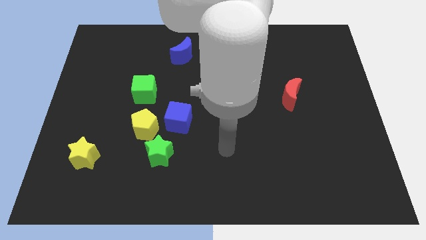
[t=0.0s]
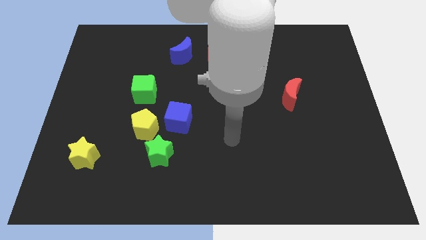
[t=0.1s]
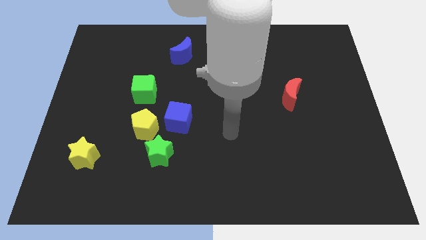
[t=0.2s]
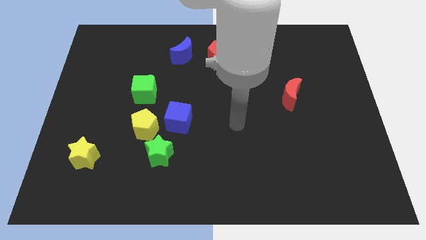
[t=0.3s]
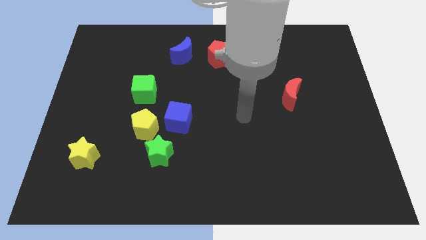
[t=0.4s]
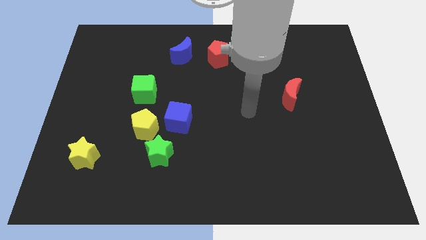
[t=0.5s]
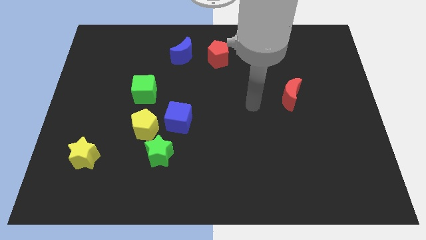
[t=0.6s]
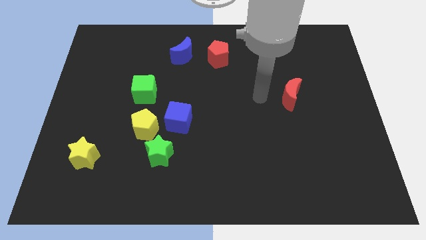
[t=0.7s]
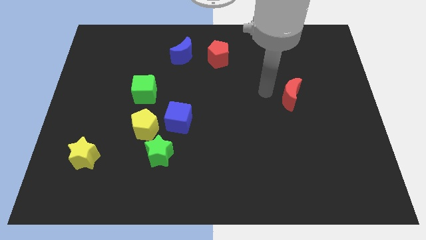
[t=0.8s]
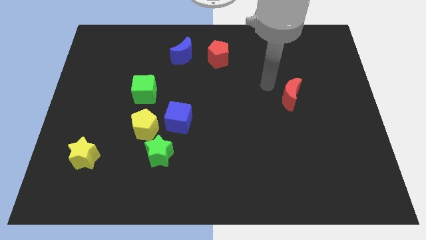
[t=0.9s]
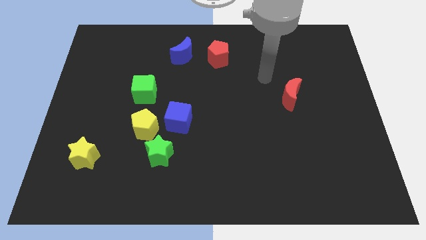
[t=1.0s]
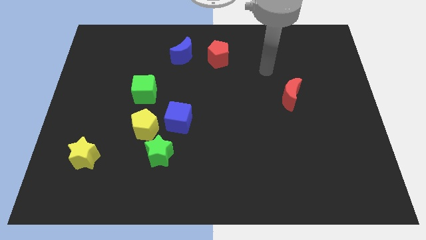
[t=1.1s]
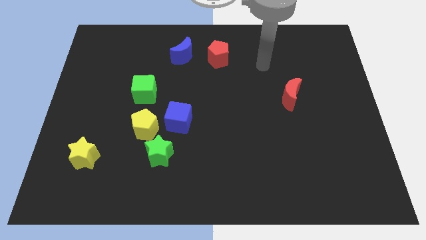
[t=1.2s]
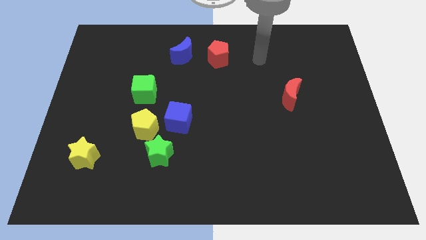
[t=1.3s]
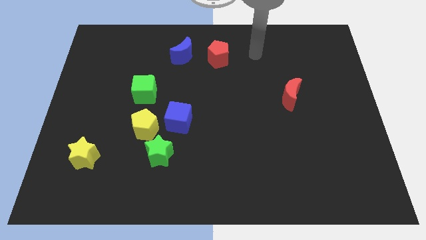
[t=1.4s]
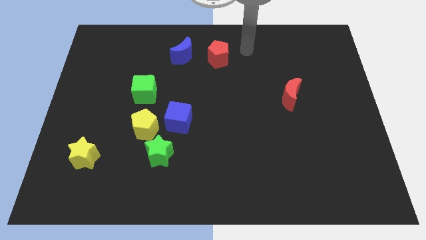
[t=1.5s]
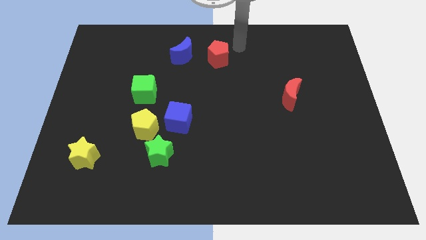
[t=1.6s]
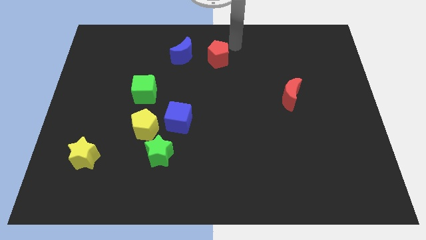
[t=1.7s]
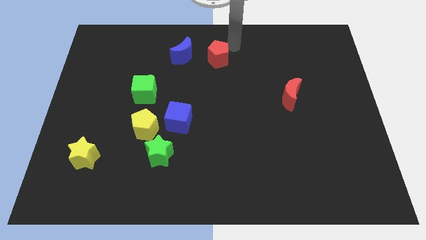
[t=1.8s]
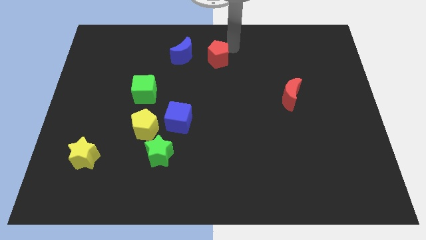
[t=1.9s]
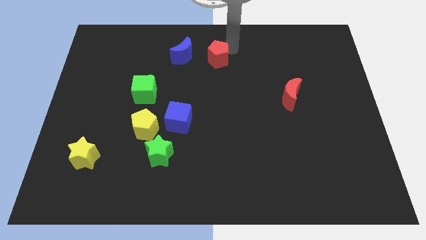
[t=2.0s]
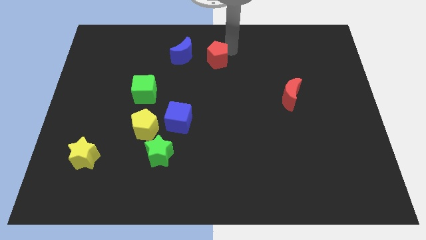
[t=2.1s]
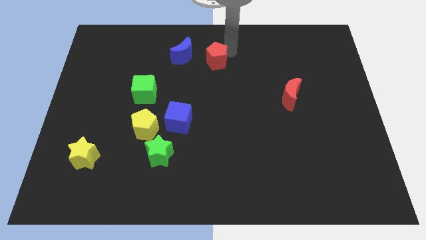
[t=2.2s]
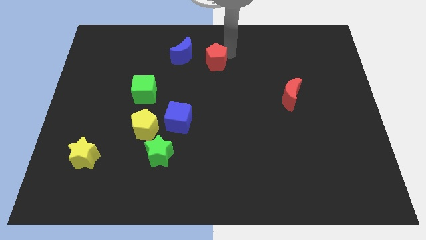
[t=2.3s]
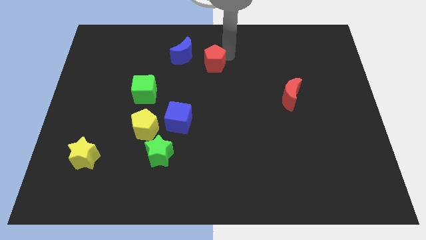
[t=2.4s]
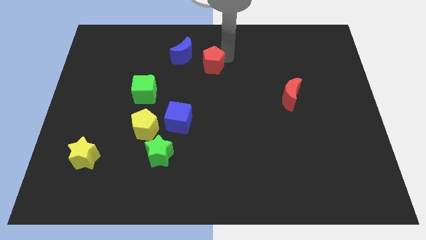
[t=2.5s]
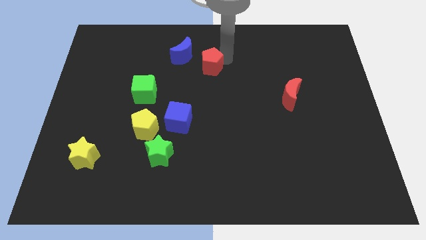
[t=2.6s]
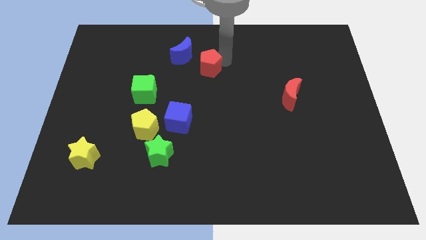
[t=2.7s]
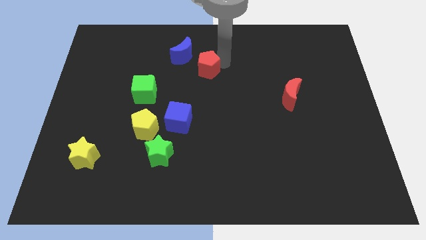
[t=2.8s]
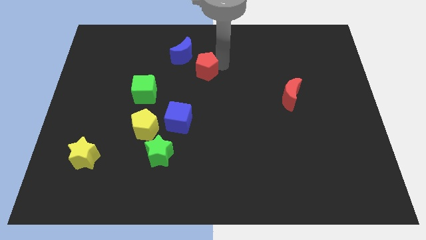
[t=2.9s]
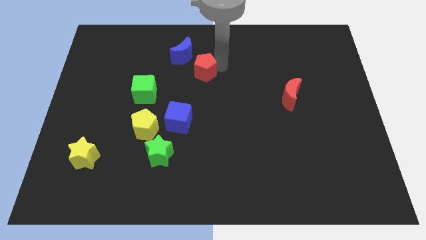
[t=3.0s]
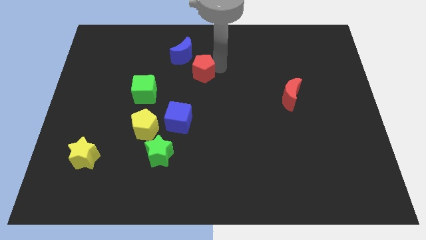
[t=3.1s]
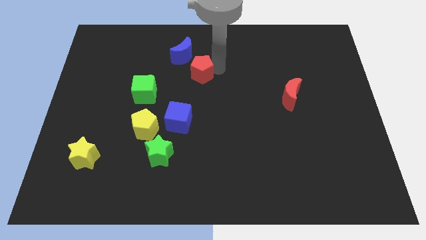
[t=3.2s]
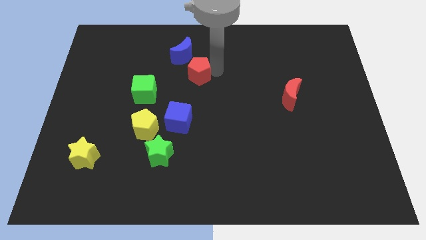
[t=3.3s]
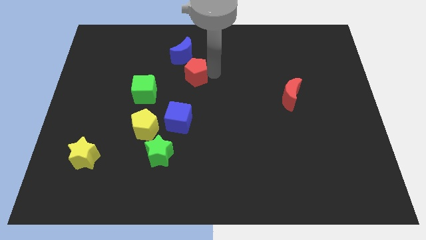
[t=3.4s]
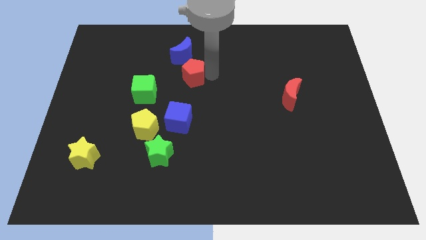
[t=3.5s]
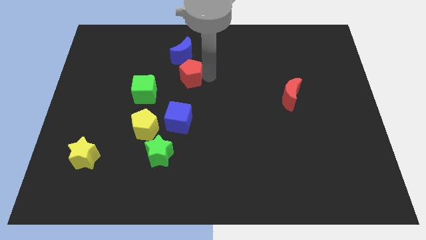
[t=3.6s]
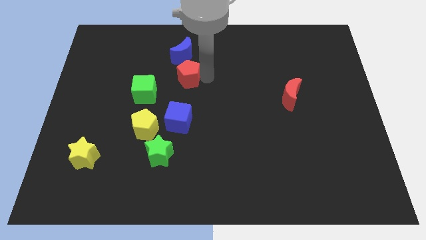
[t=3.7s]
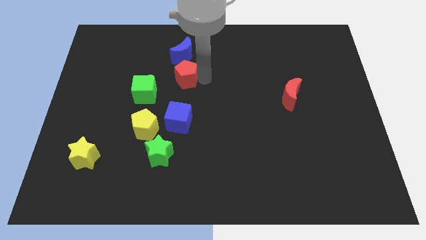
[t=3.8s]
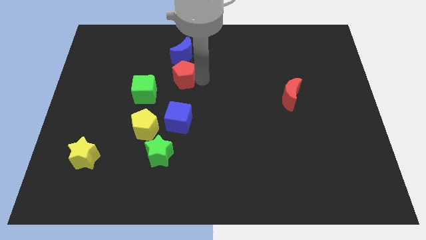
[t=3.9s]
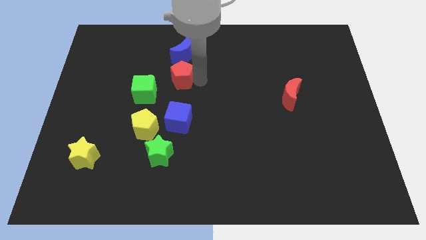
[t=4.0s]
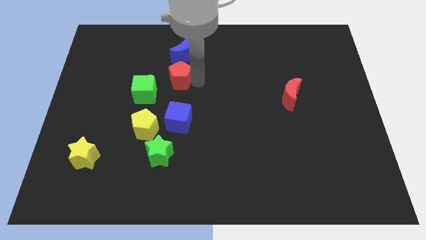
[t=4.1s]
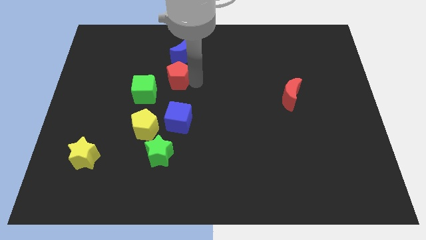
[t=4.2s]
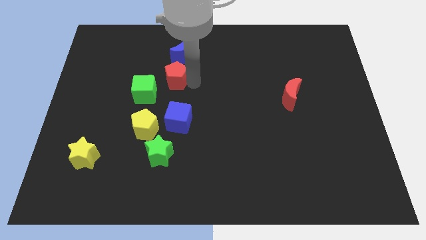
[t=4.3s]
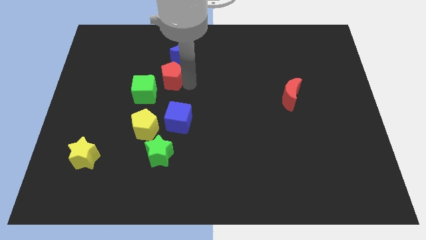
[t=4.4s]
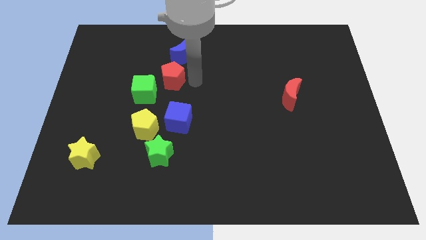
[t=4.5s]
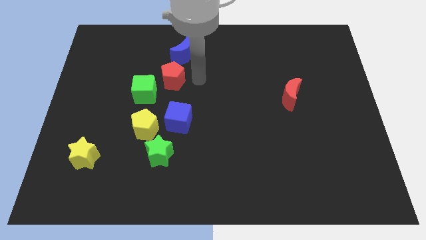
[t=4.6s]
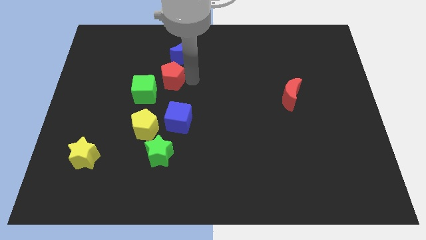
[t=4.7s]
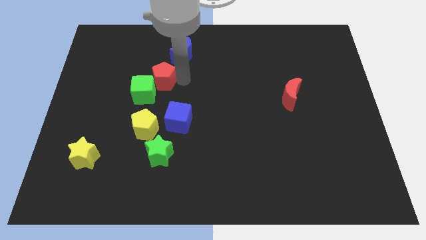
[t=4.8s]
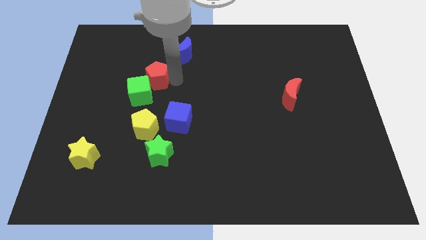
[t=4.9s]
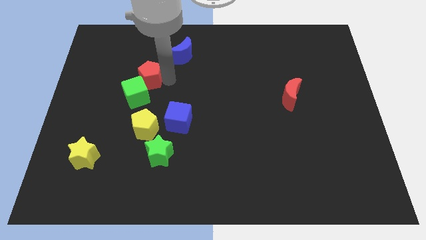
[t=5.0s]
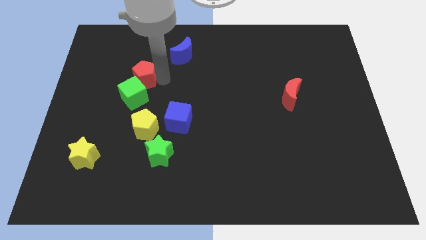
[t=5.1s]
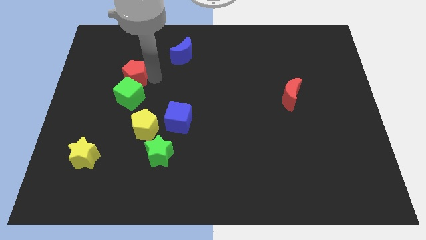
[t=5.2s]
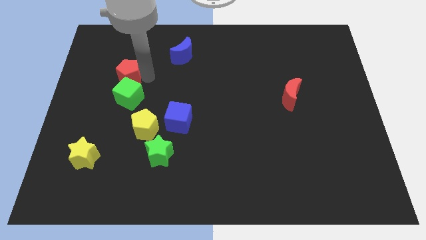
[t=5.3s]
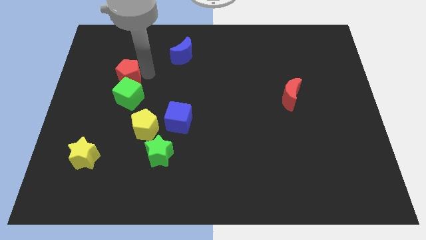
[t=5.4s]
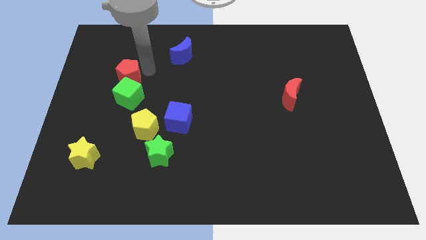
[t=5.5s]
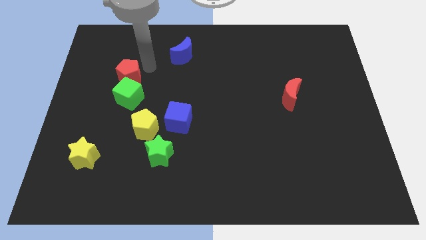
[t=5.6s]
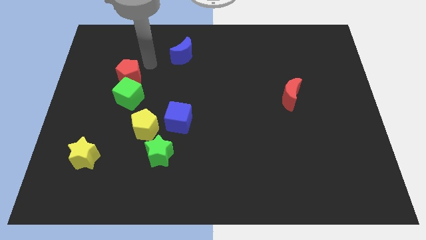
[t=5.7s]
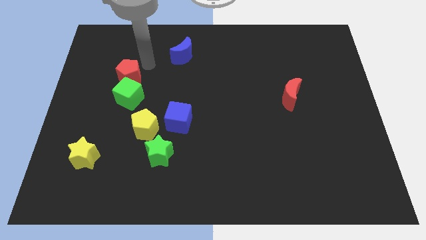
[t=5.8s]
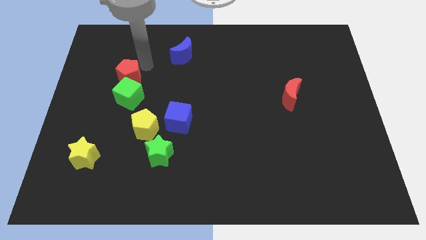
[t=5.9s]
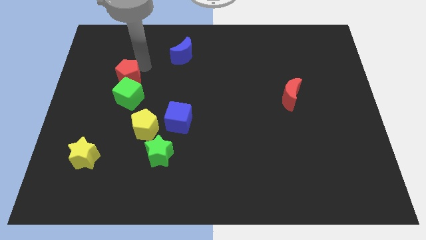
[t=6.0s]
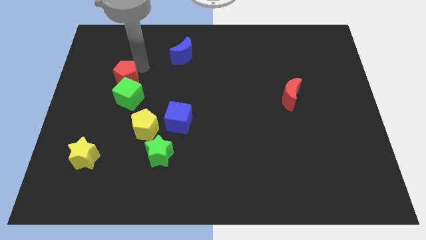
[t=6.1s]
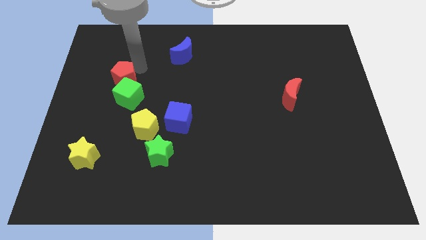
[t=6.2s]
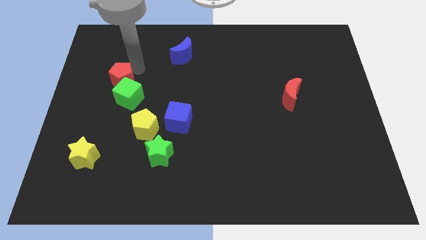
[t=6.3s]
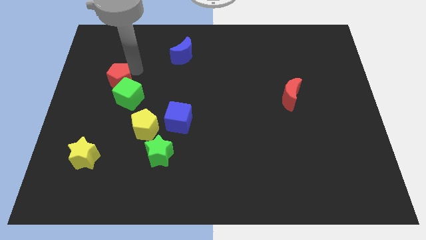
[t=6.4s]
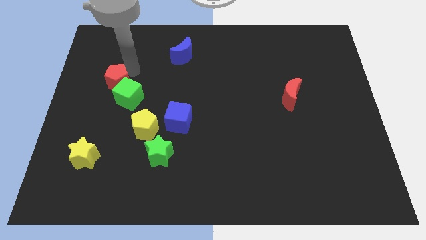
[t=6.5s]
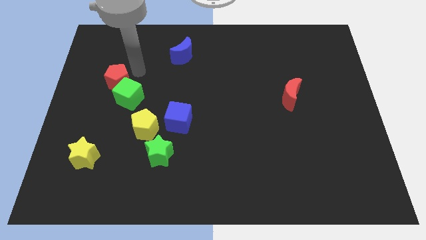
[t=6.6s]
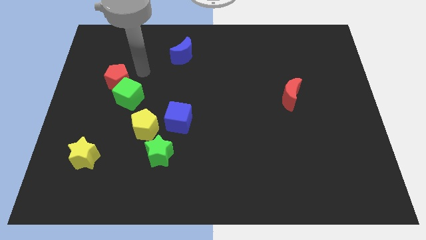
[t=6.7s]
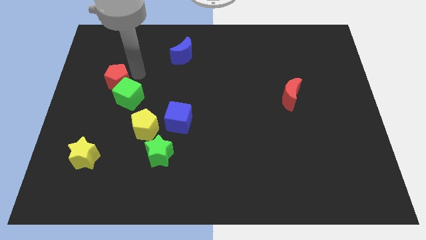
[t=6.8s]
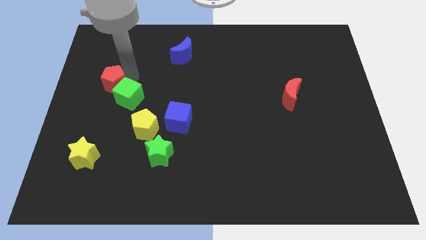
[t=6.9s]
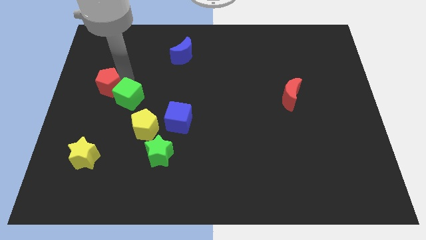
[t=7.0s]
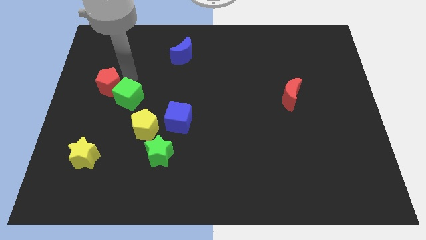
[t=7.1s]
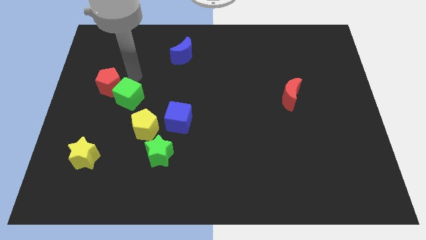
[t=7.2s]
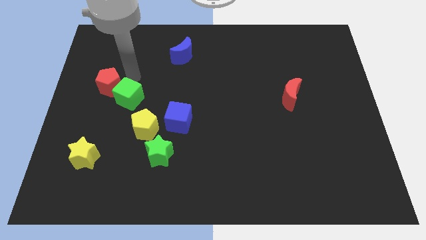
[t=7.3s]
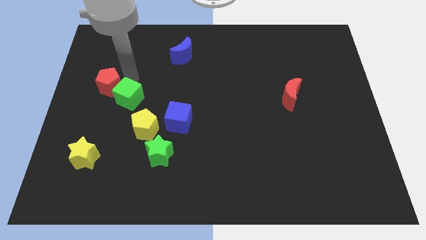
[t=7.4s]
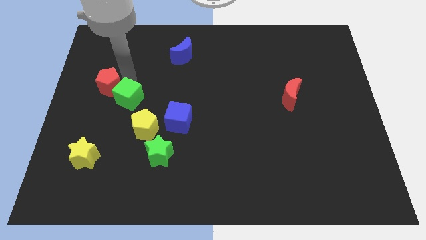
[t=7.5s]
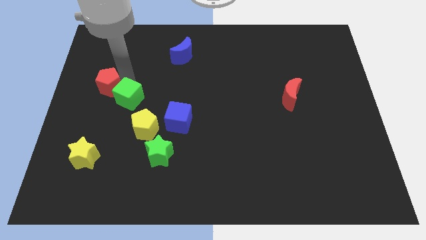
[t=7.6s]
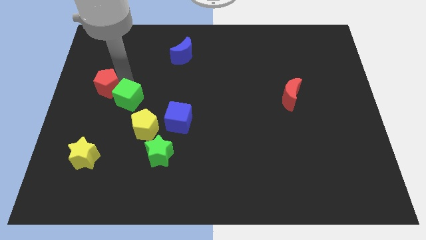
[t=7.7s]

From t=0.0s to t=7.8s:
move the red pentagon to the left side
